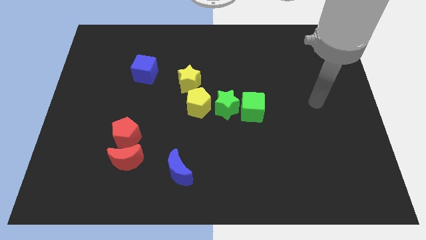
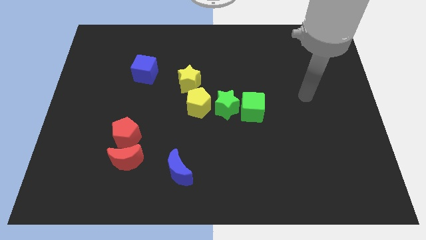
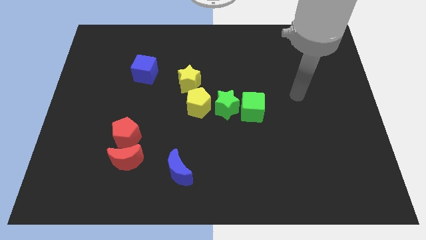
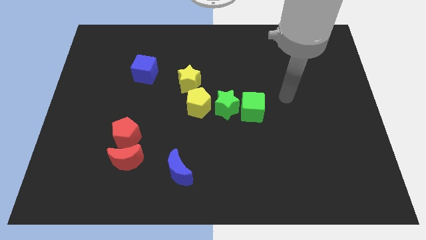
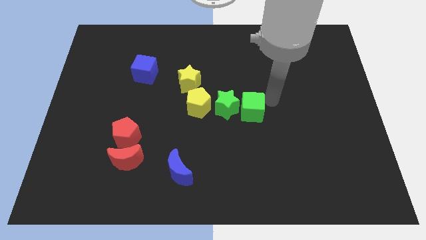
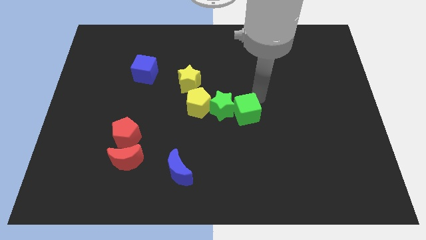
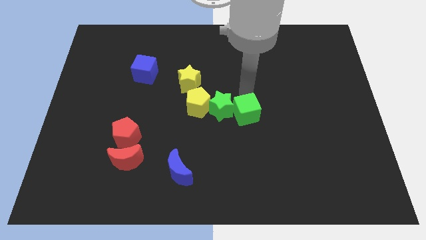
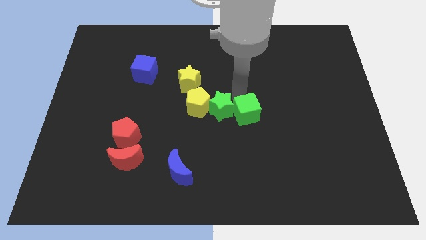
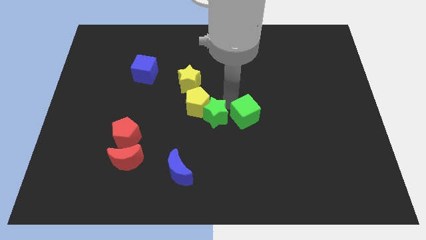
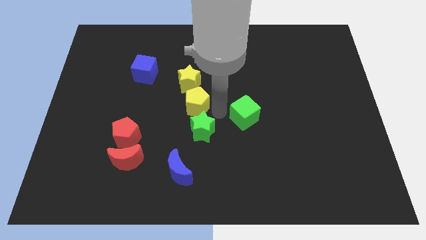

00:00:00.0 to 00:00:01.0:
move the green cube away from the green star

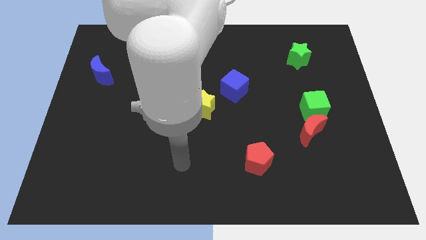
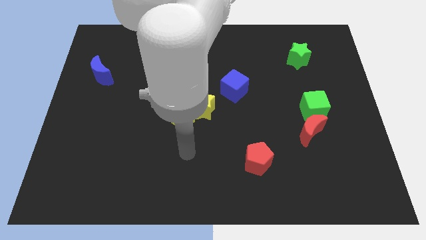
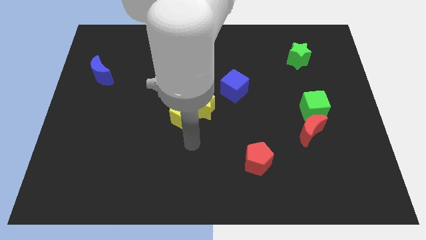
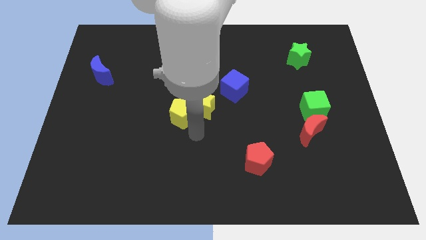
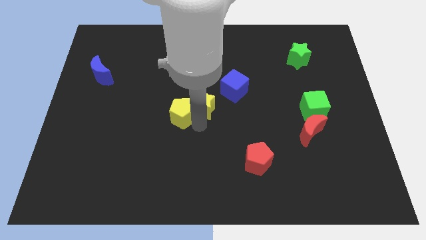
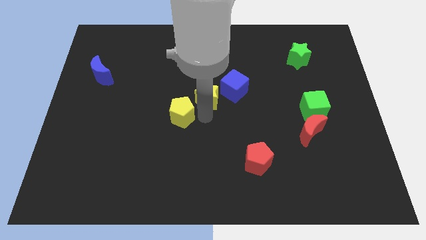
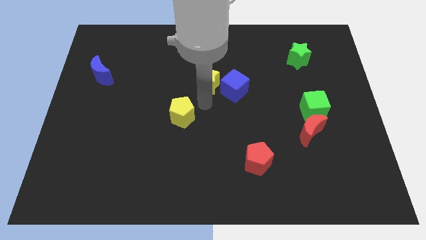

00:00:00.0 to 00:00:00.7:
move the yellow pentagon away from the yellow star

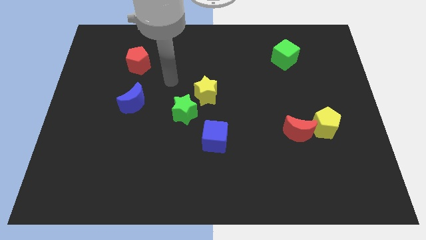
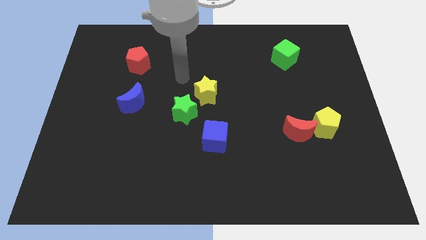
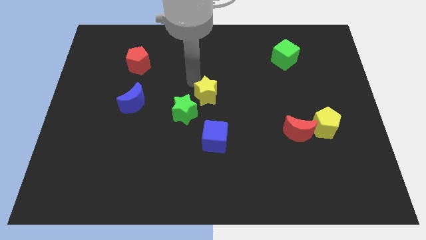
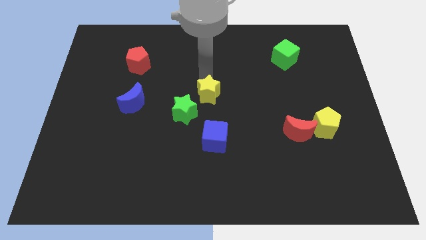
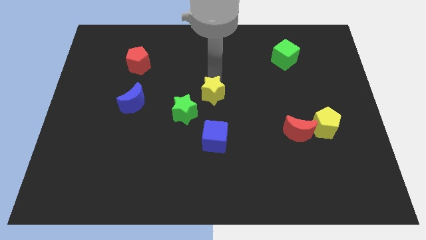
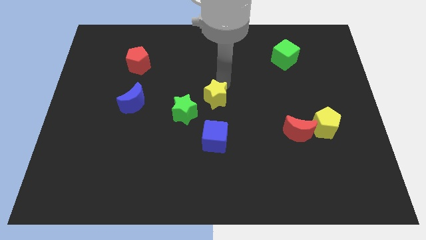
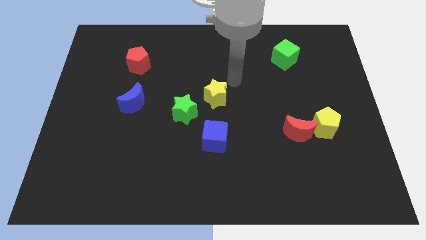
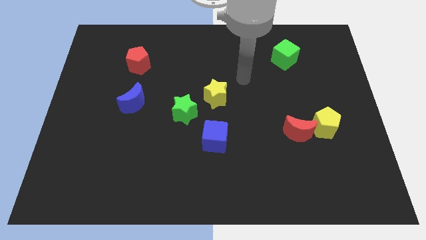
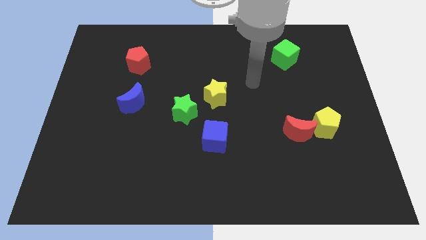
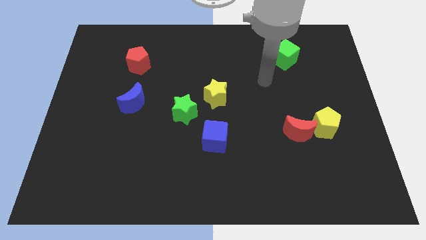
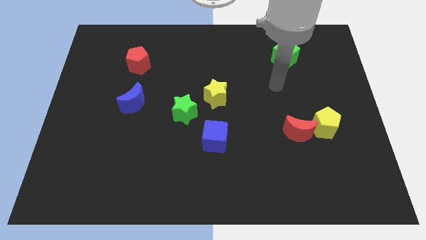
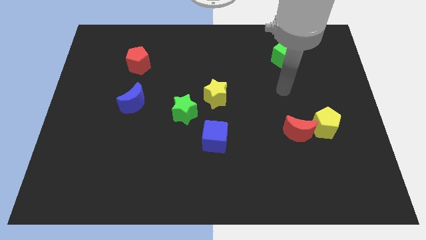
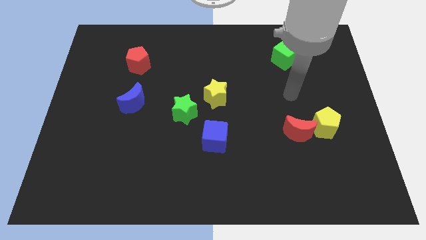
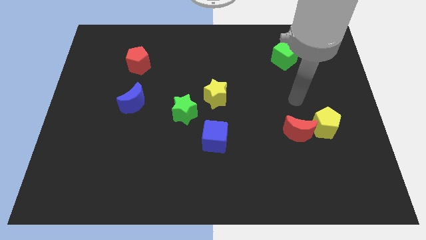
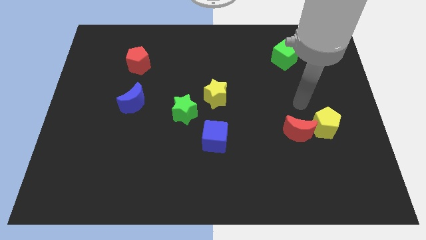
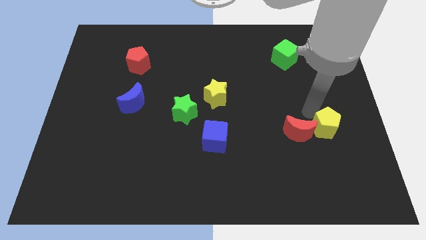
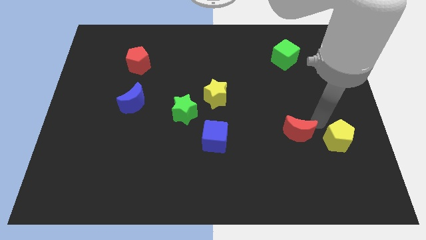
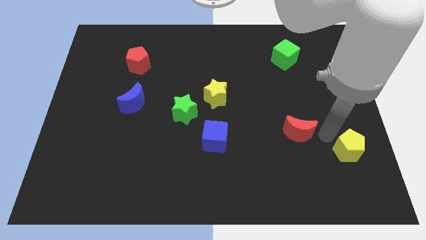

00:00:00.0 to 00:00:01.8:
move the red moon away from the yellow pentagon

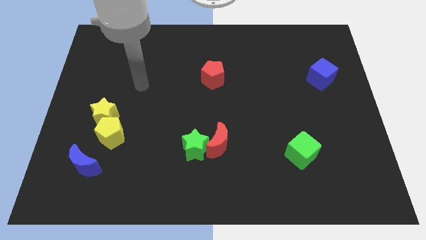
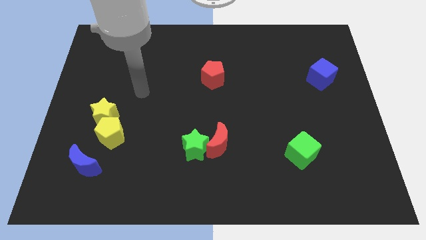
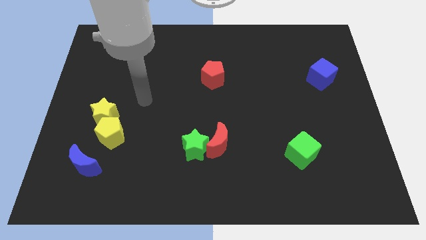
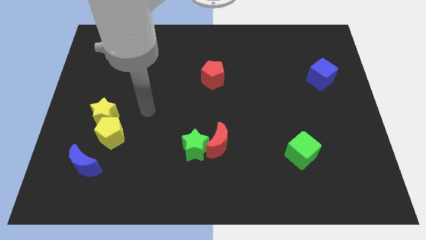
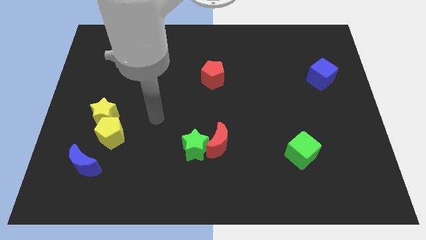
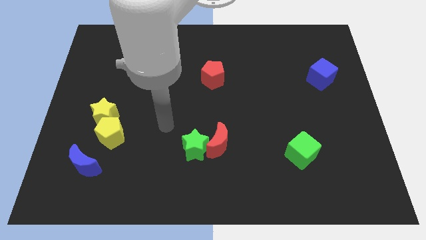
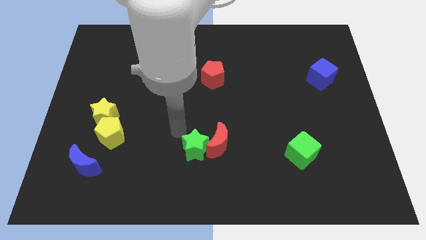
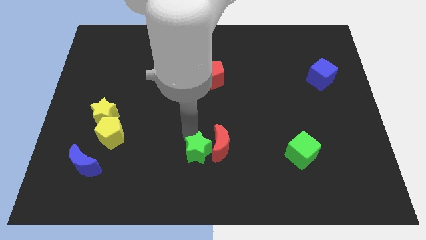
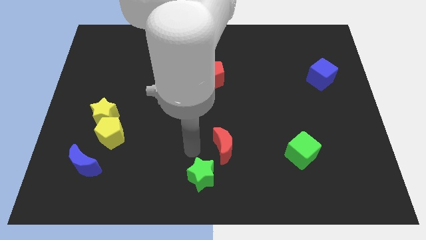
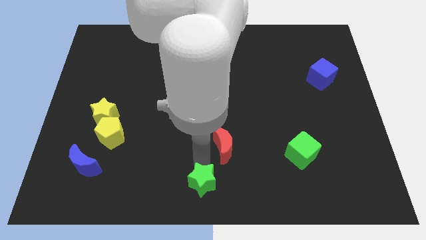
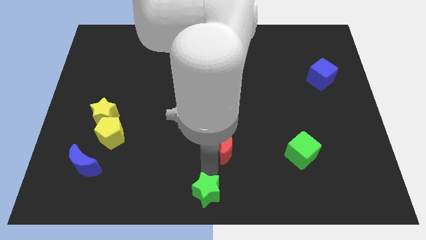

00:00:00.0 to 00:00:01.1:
separate the red moon from the green star

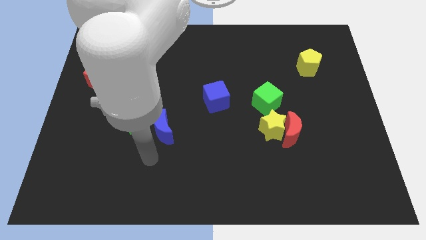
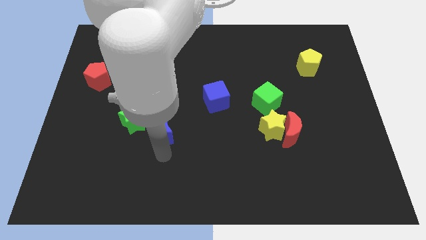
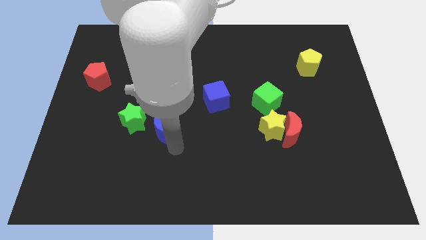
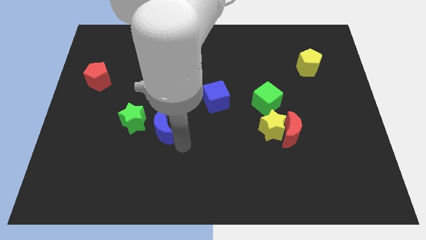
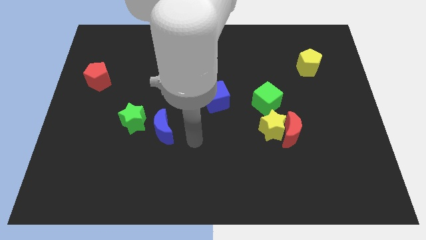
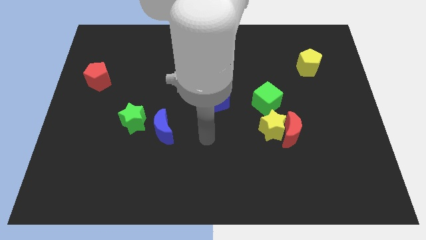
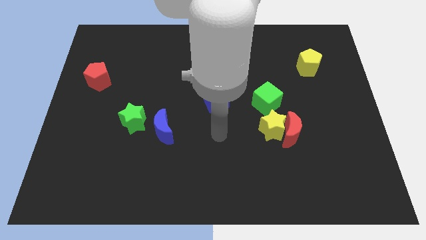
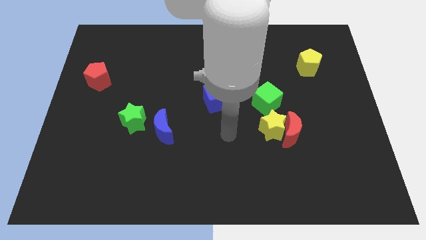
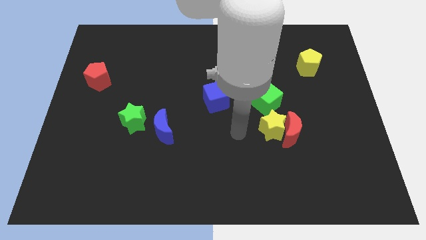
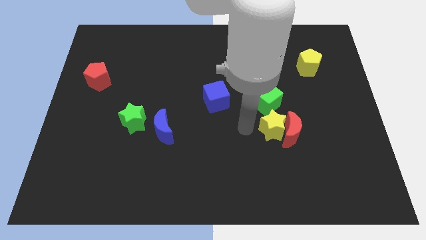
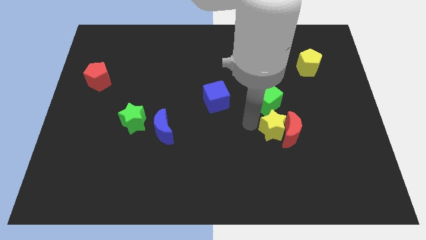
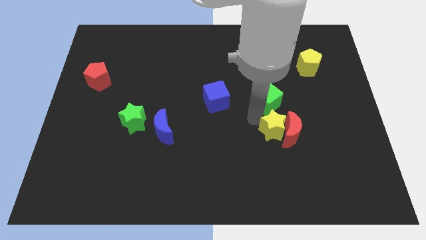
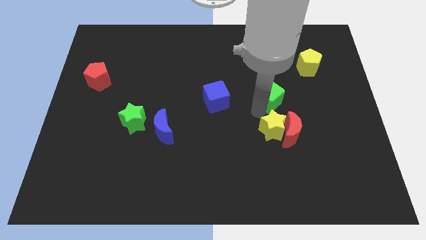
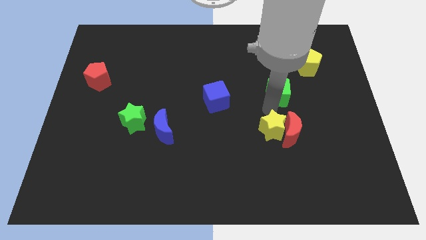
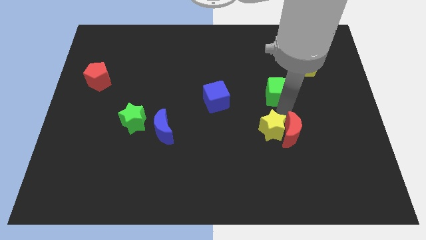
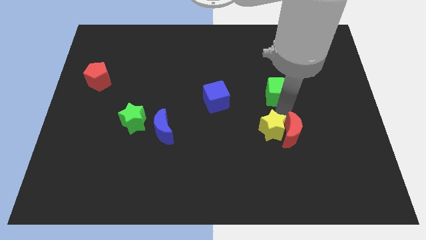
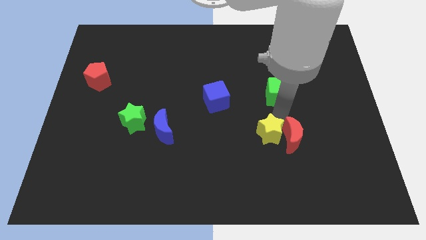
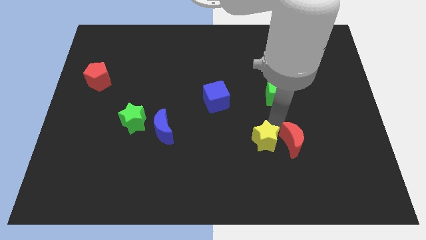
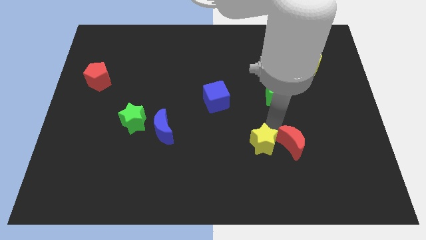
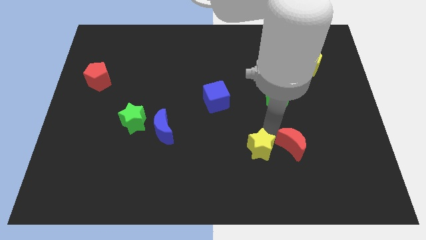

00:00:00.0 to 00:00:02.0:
pull the yellow star apart from the red moon and green cube

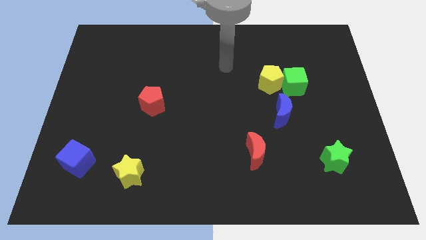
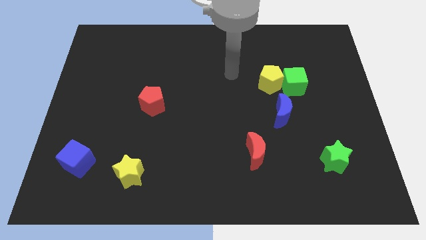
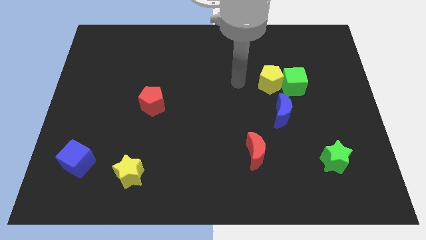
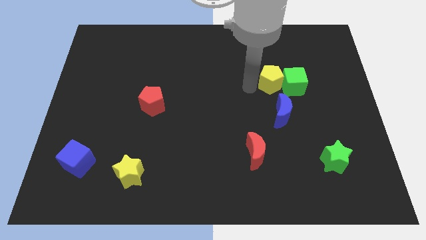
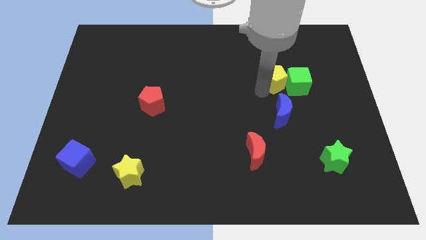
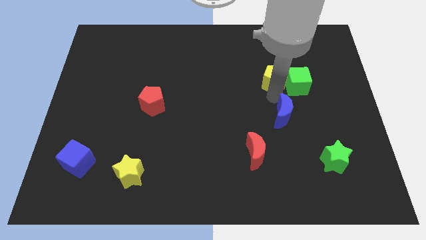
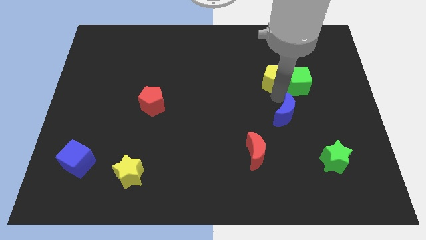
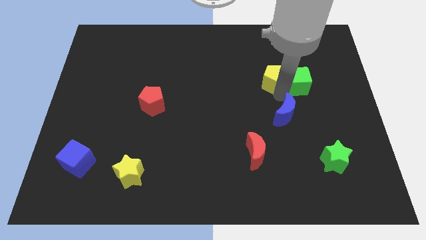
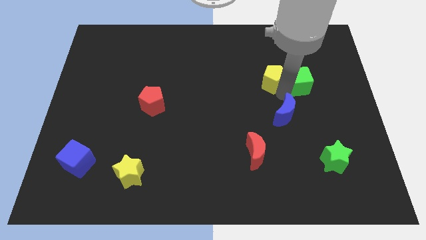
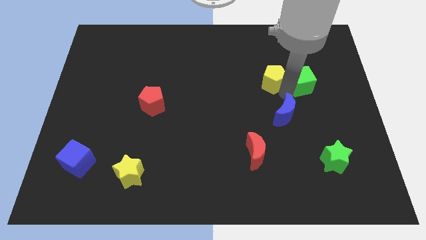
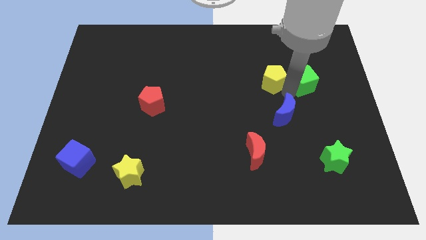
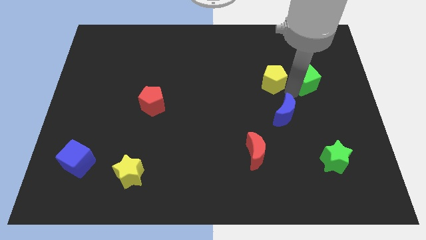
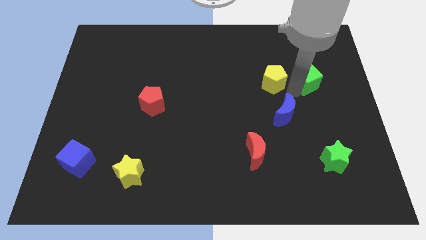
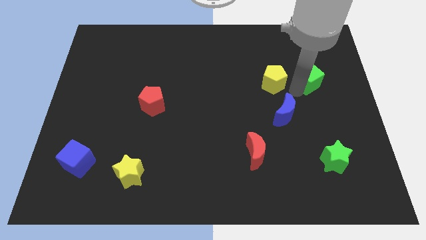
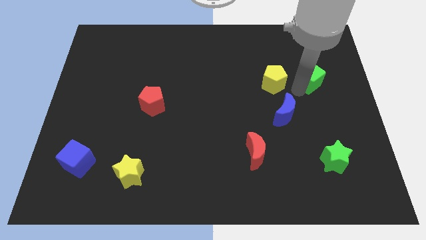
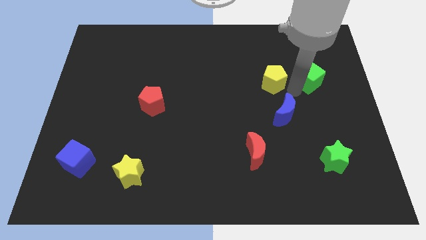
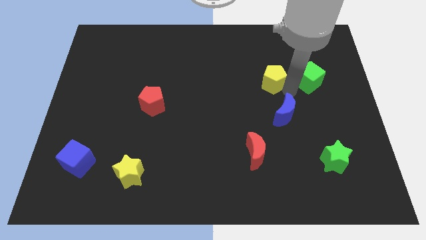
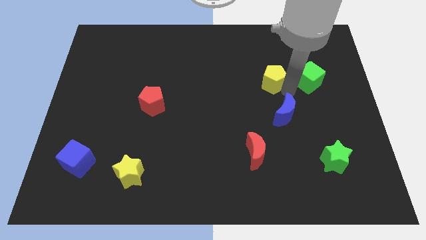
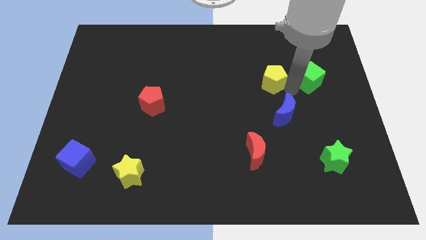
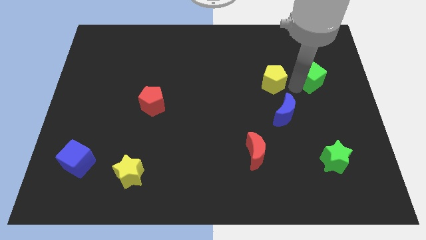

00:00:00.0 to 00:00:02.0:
move the green cube away from the yellow pentagon and blue moon

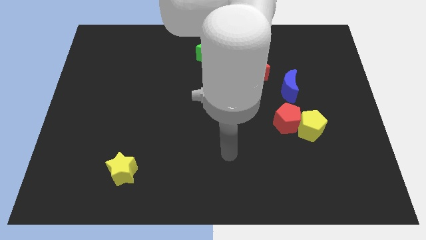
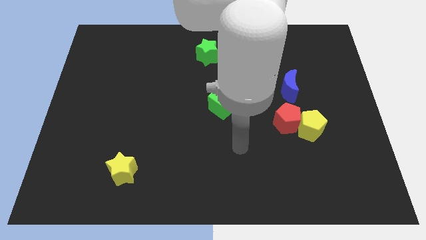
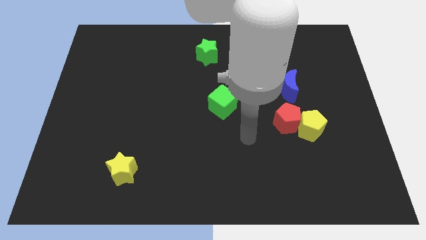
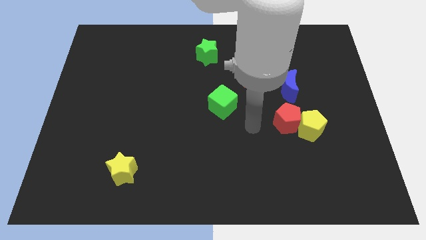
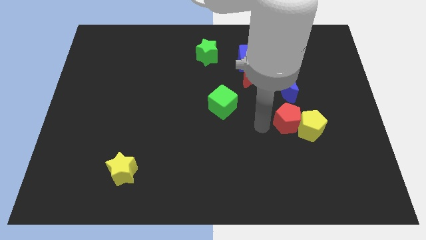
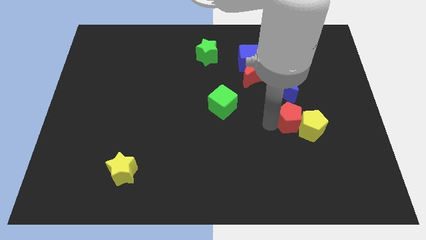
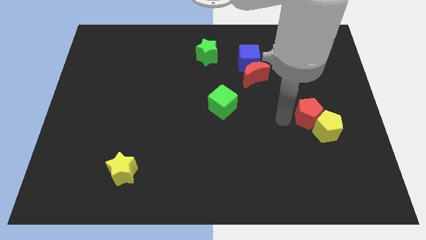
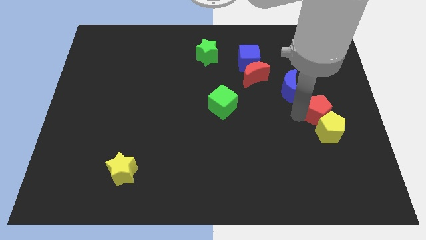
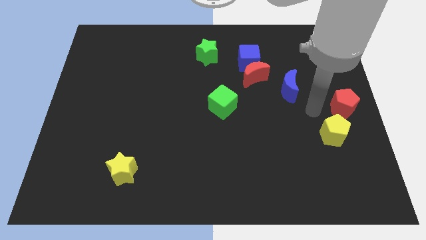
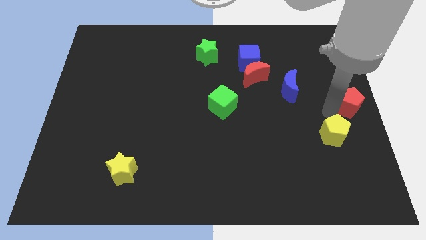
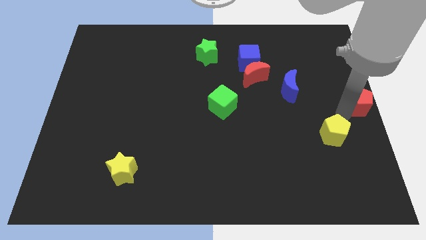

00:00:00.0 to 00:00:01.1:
separate the yellow pentagon from the red pentagon
